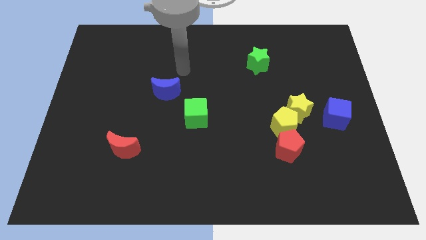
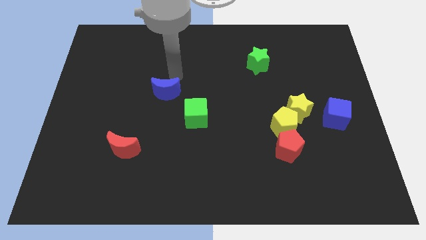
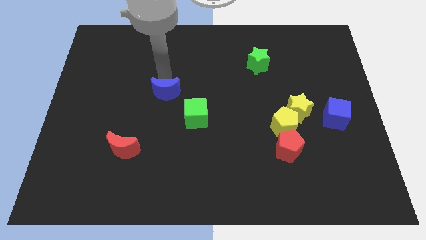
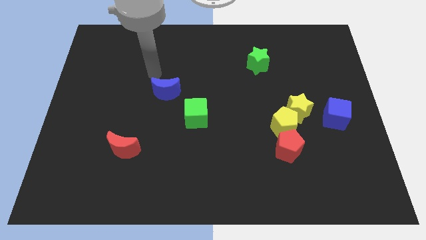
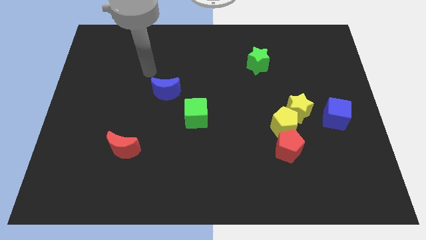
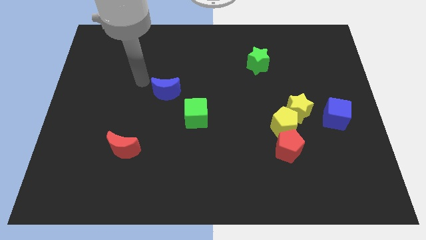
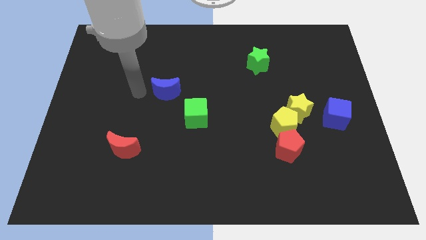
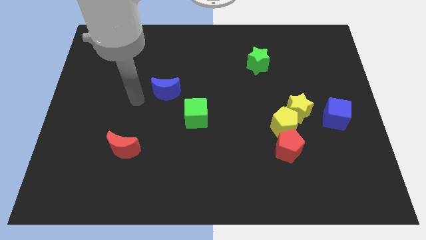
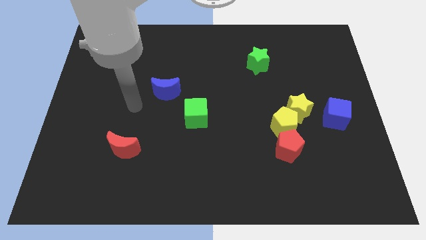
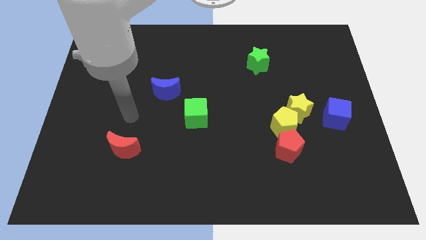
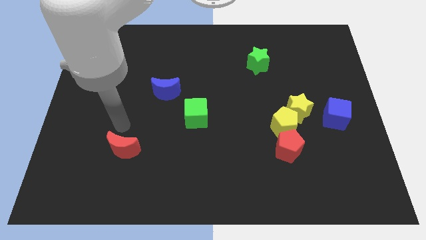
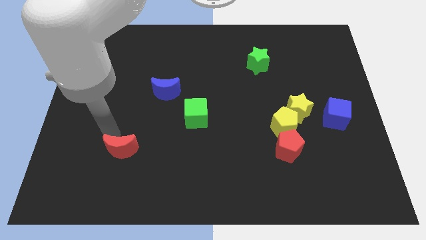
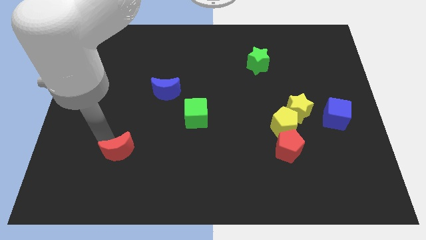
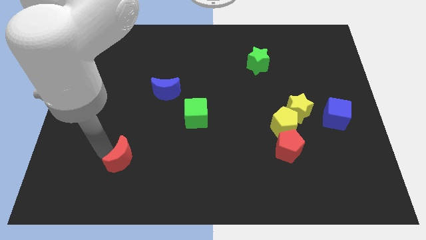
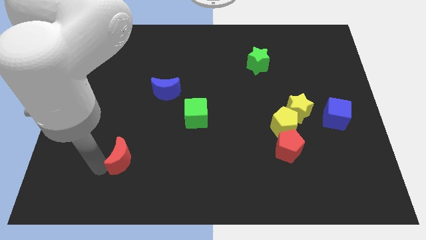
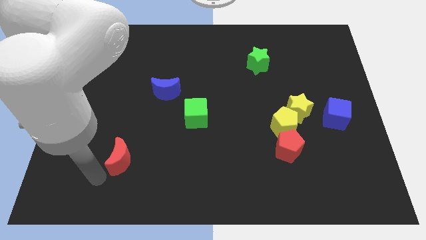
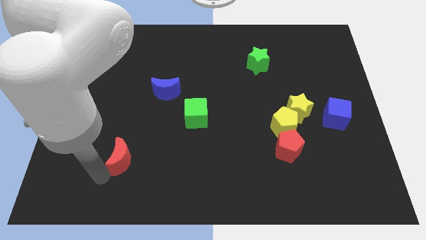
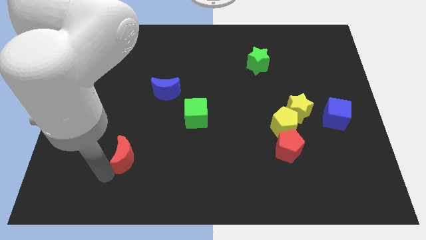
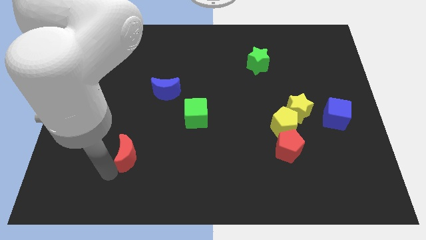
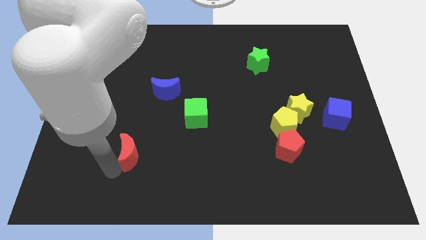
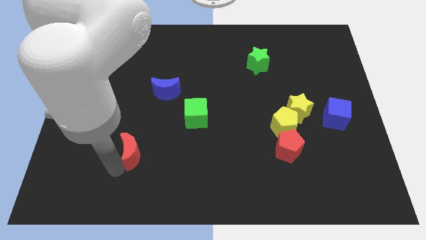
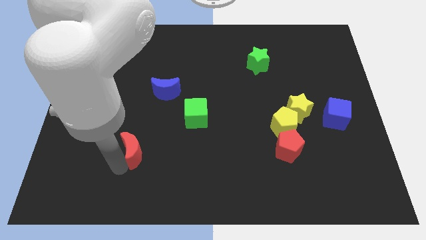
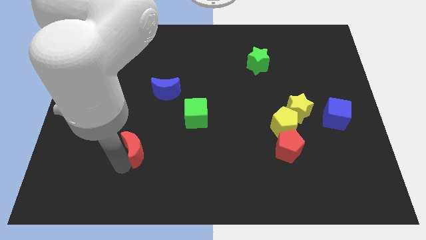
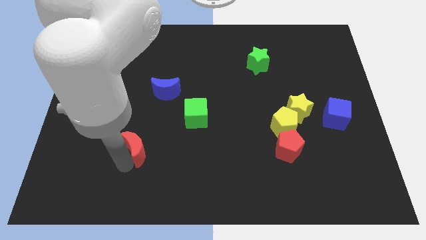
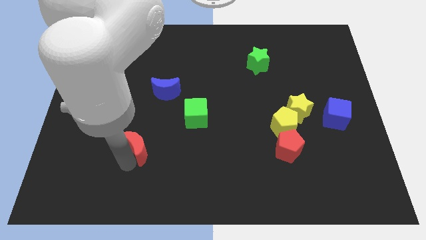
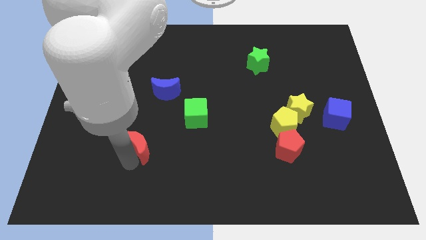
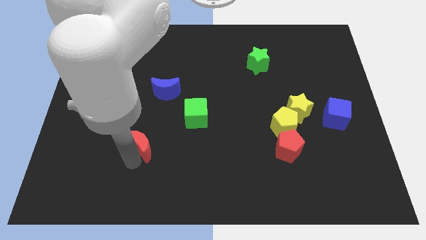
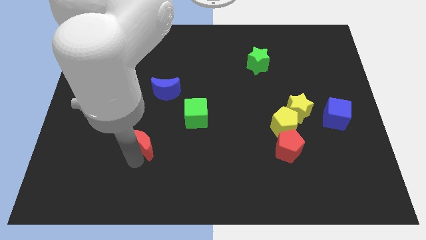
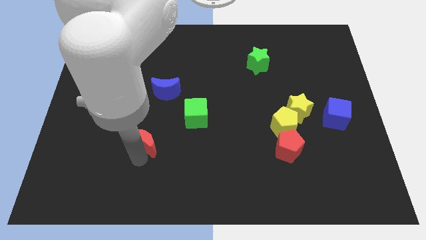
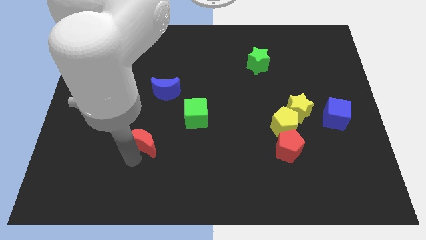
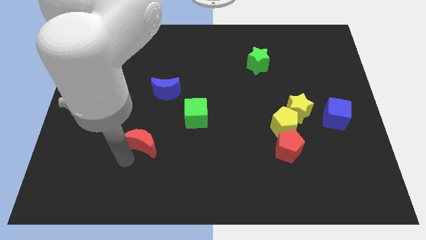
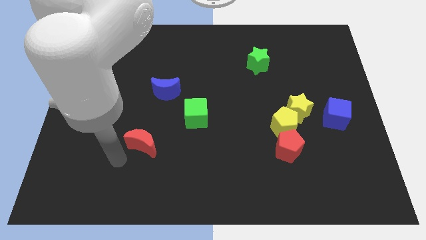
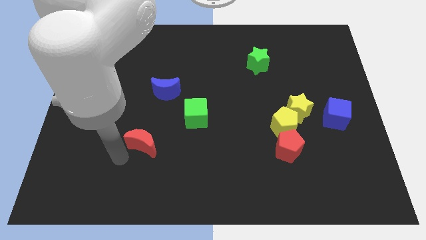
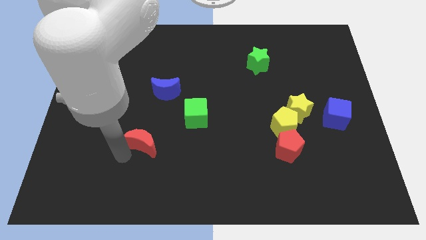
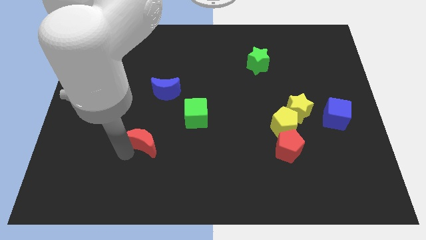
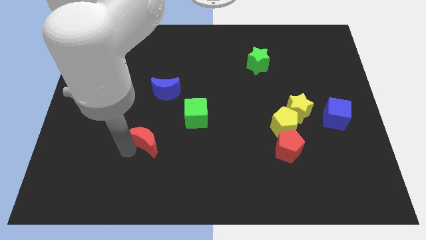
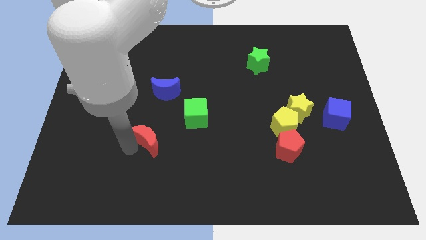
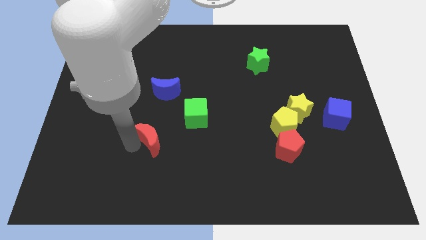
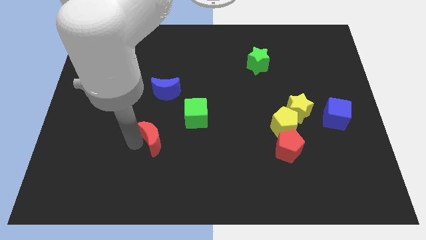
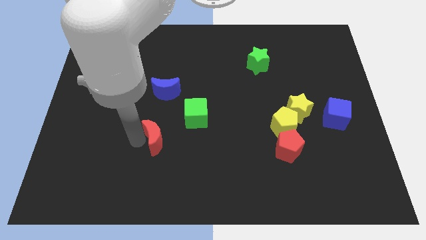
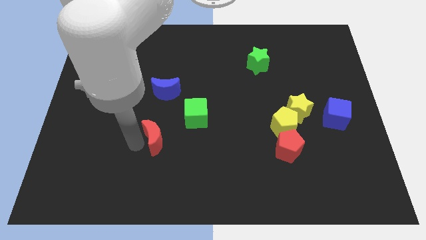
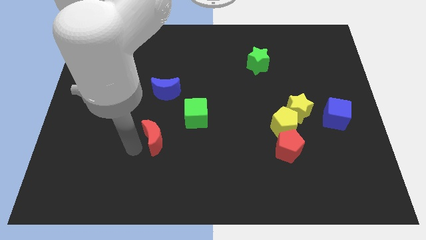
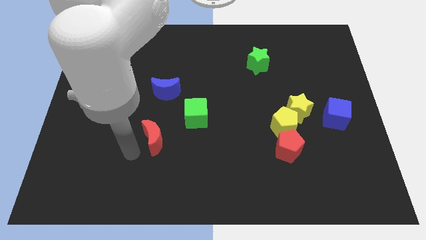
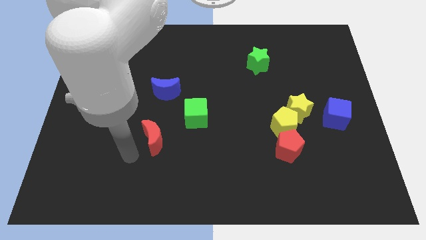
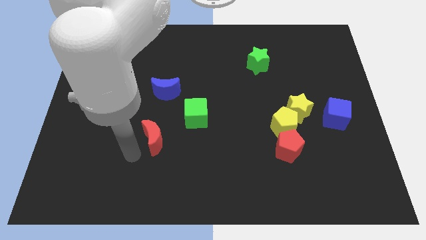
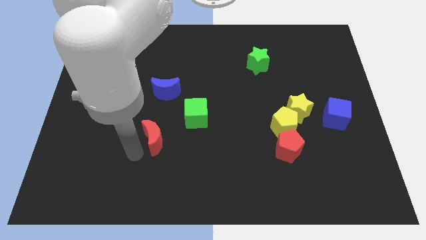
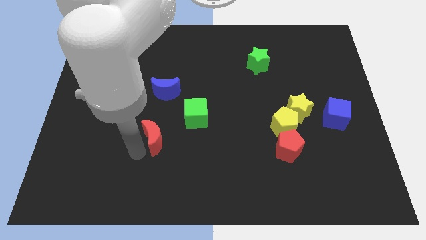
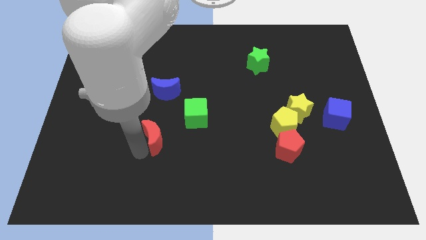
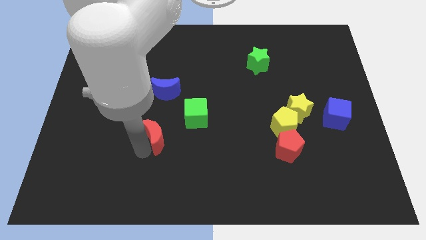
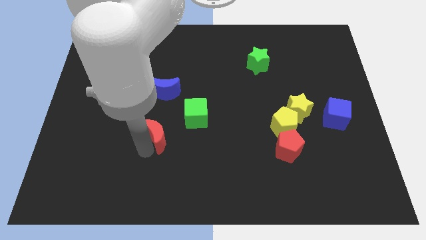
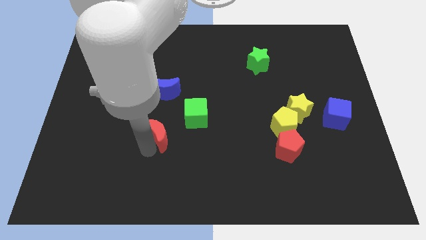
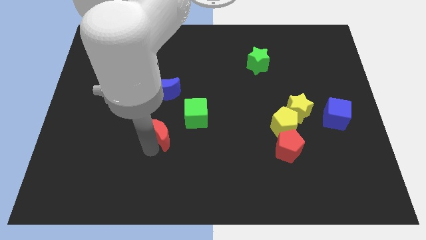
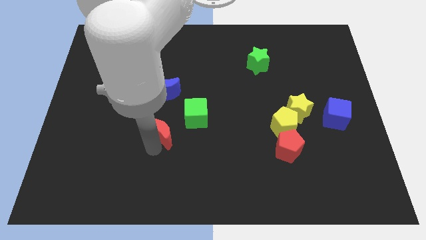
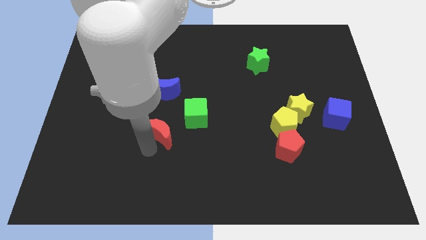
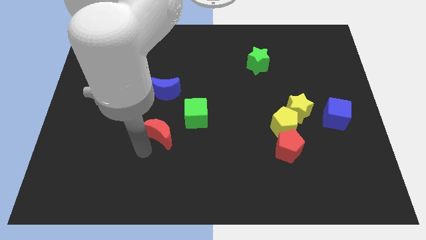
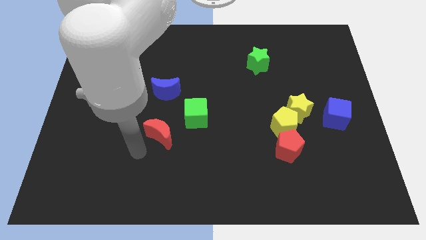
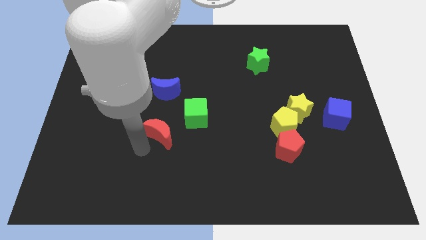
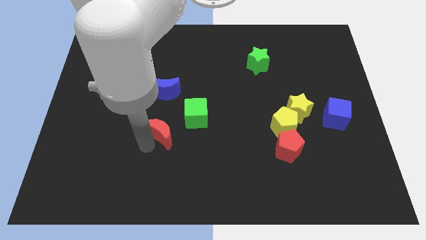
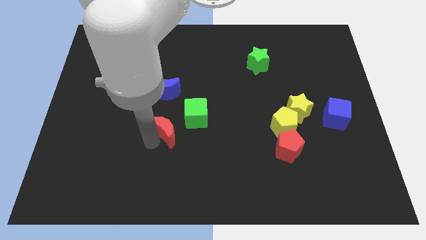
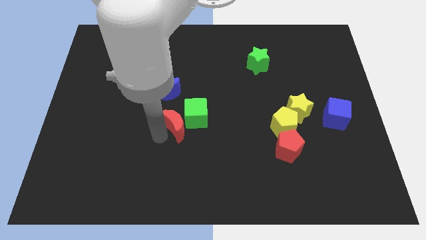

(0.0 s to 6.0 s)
put the red moon close to the green cube

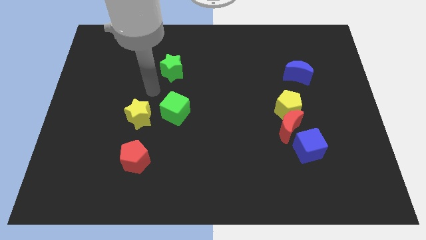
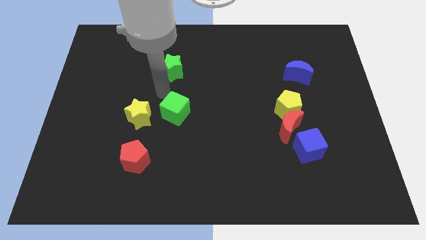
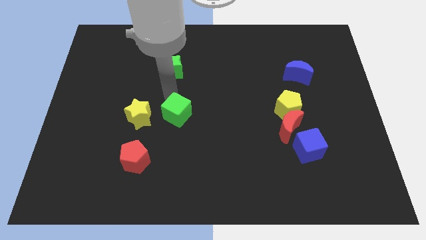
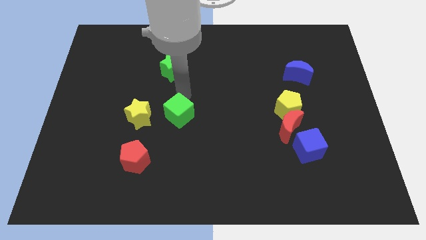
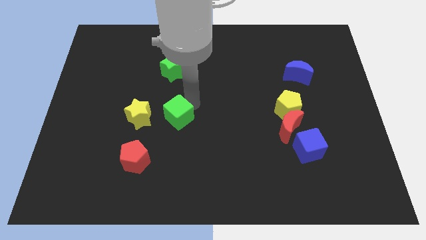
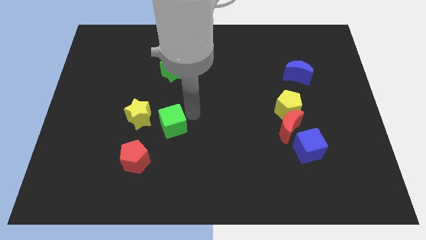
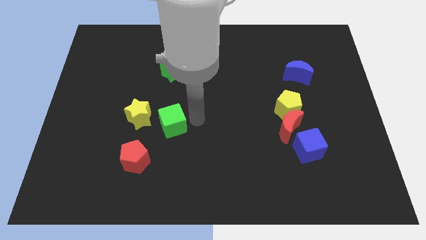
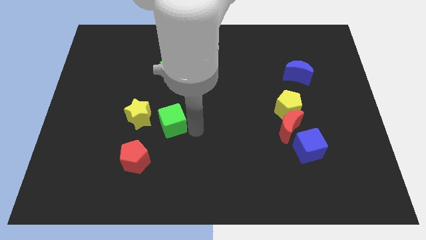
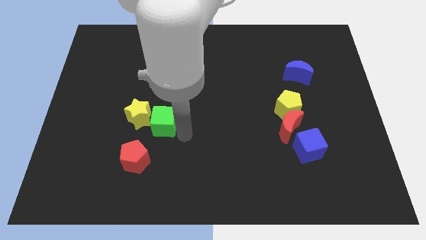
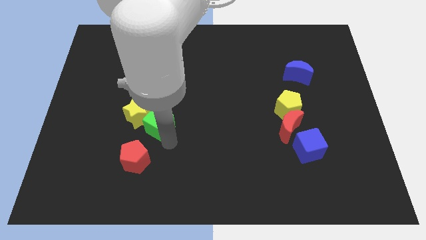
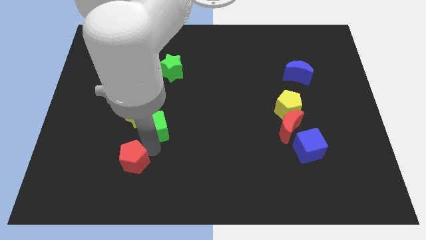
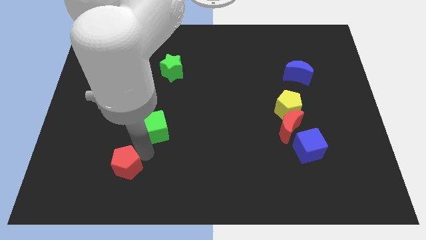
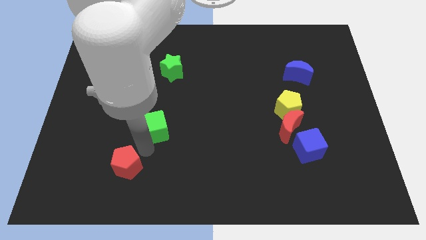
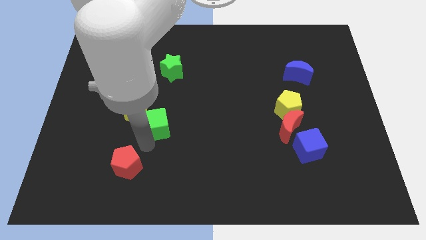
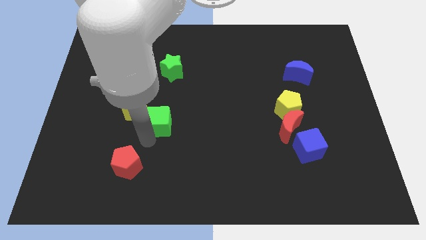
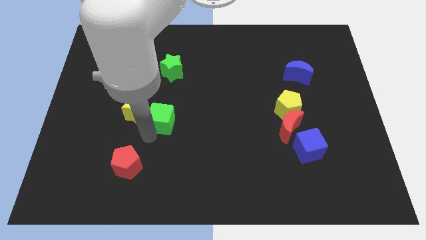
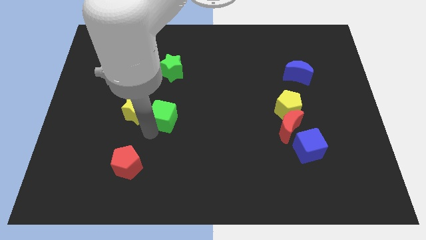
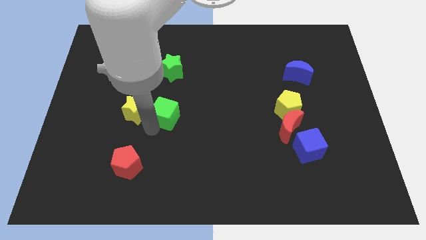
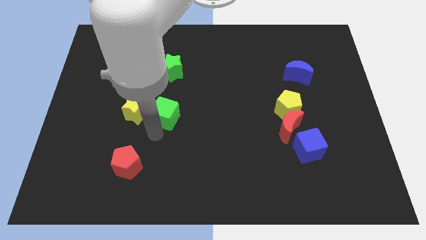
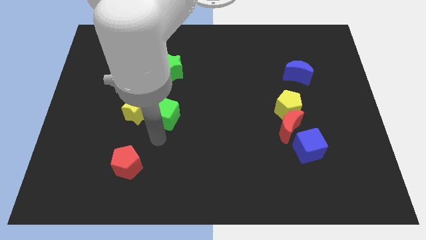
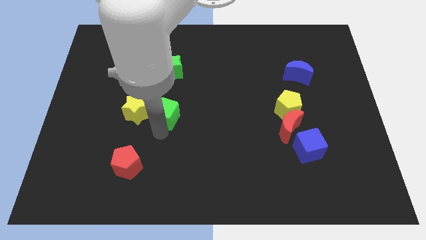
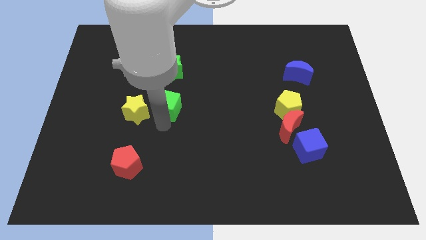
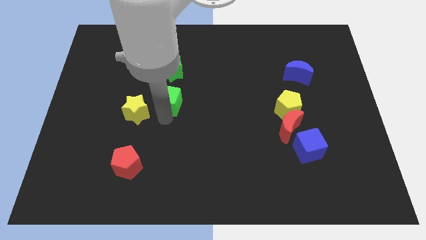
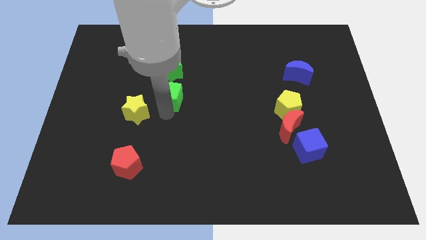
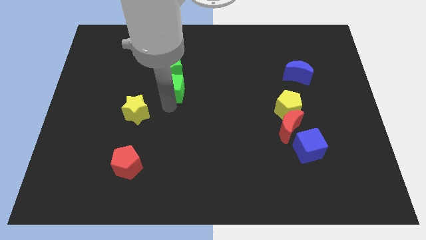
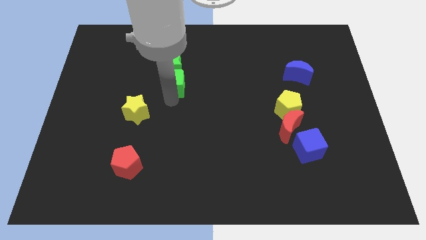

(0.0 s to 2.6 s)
slide the green cube next to the green star
